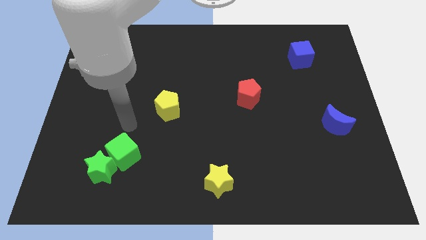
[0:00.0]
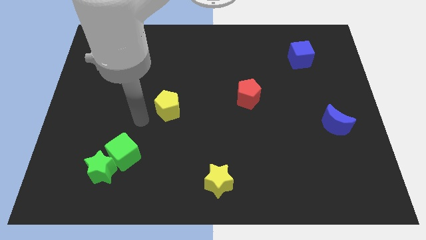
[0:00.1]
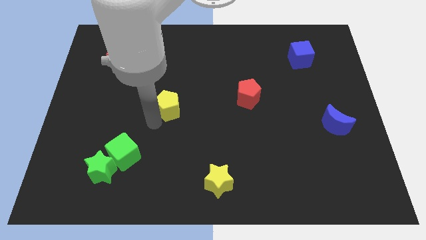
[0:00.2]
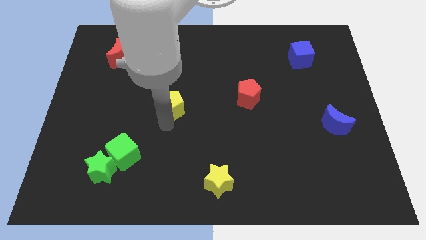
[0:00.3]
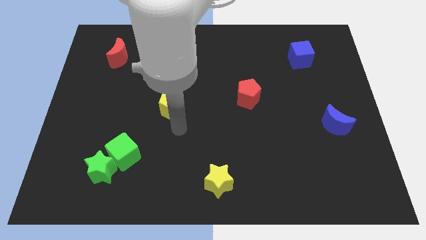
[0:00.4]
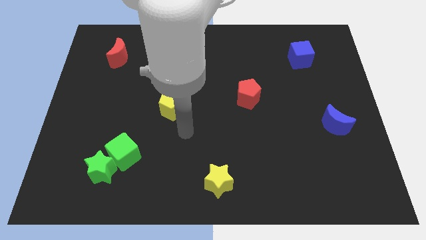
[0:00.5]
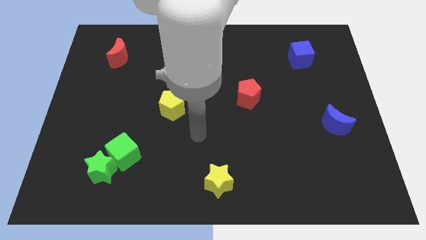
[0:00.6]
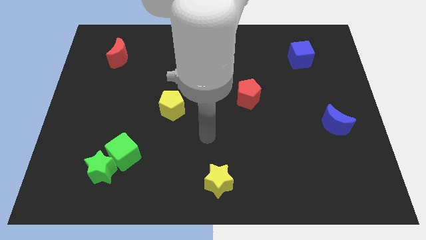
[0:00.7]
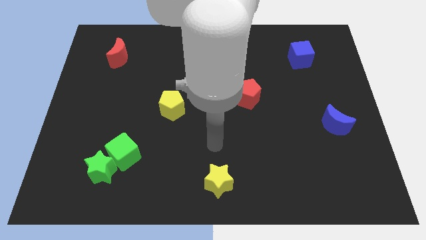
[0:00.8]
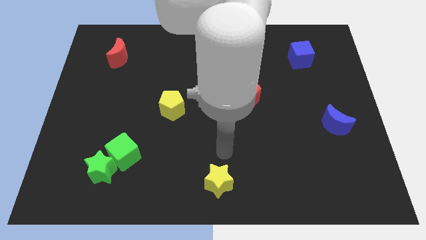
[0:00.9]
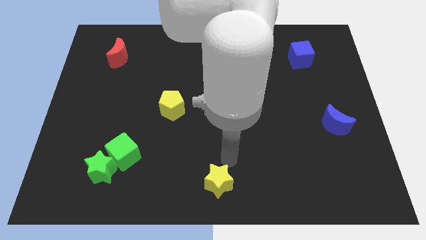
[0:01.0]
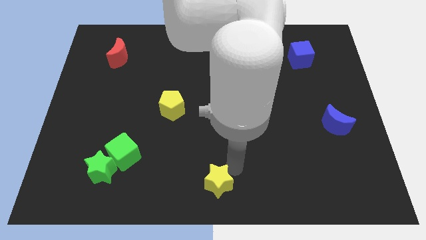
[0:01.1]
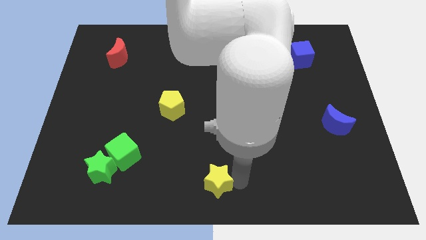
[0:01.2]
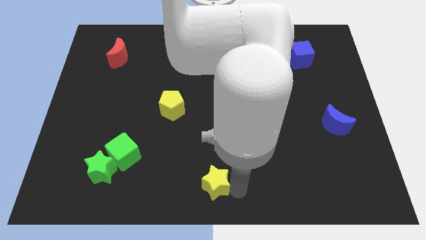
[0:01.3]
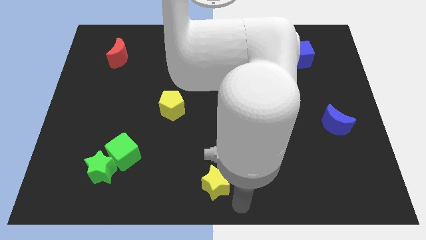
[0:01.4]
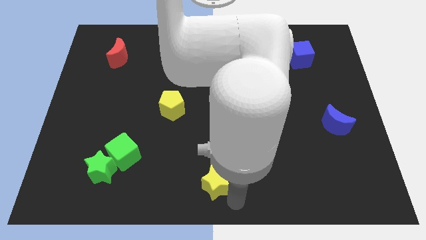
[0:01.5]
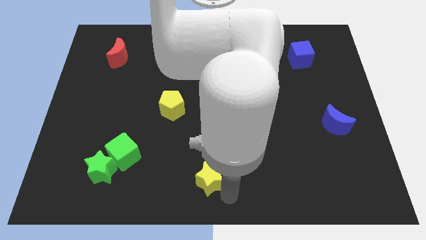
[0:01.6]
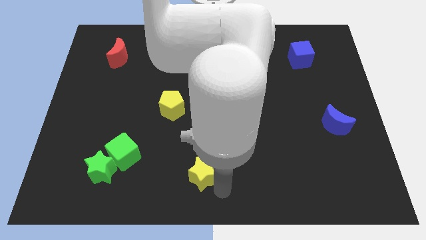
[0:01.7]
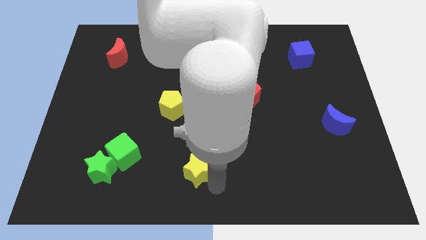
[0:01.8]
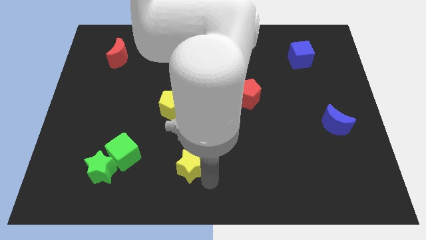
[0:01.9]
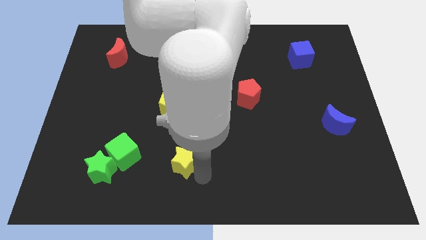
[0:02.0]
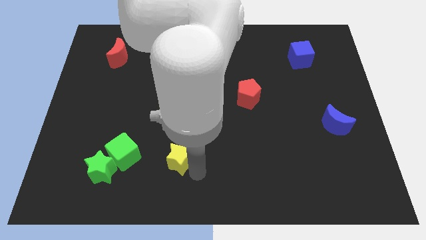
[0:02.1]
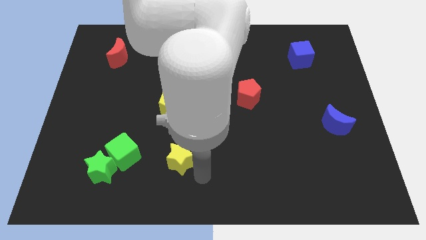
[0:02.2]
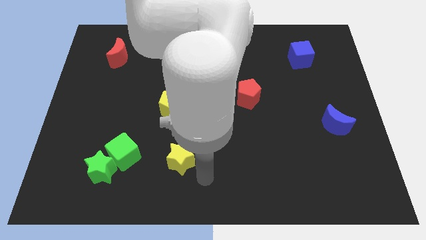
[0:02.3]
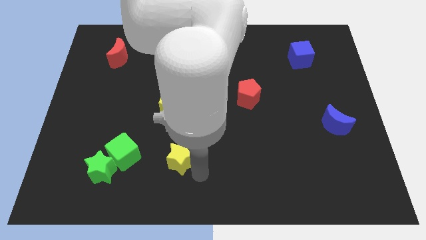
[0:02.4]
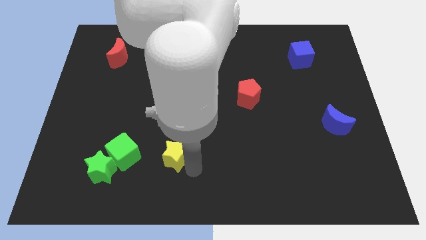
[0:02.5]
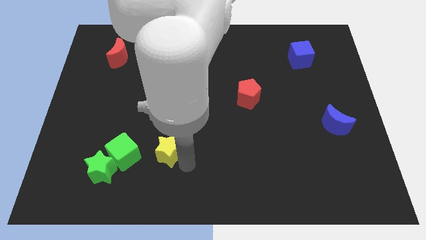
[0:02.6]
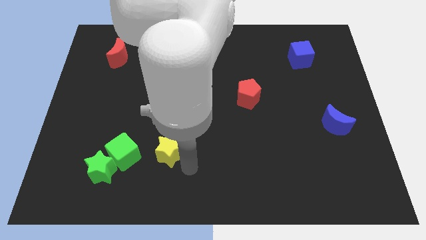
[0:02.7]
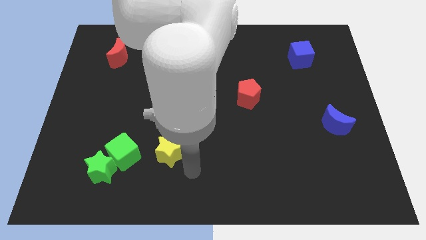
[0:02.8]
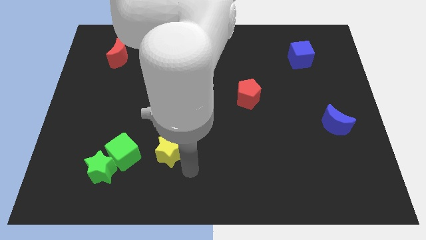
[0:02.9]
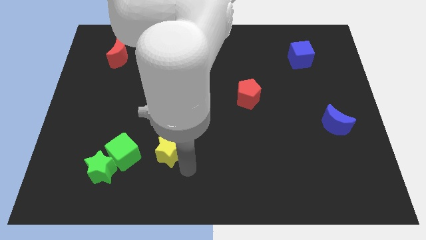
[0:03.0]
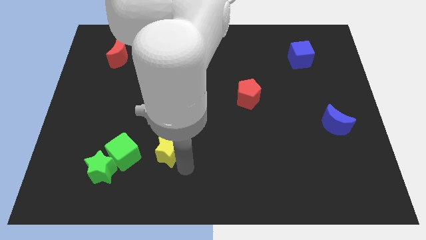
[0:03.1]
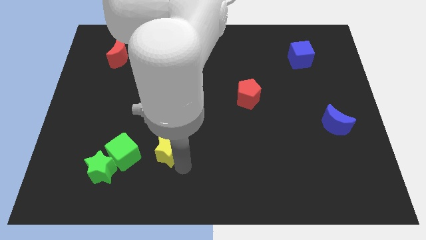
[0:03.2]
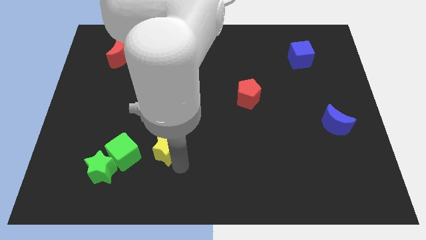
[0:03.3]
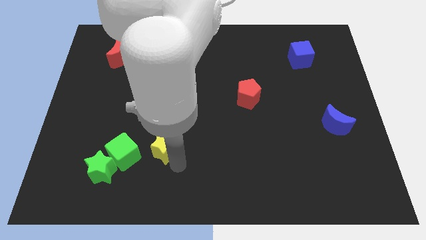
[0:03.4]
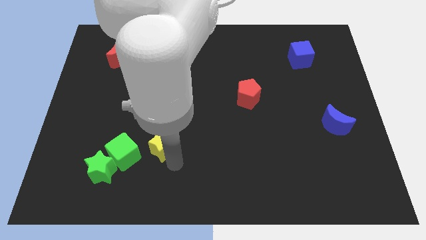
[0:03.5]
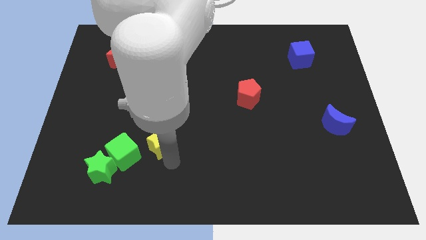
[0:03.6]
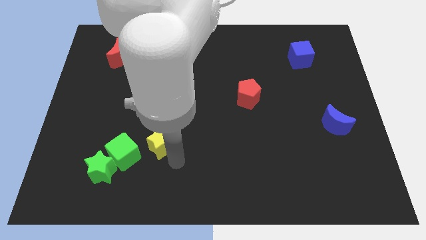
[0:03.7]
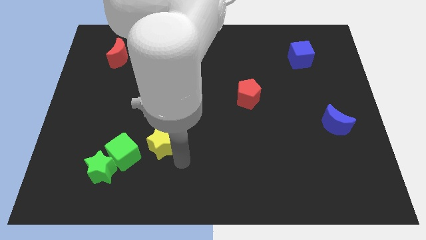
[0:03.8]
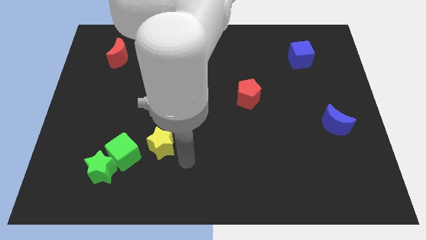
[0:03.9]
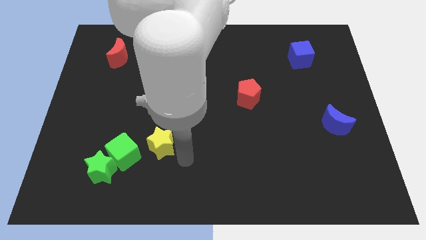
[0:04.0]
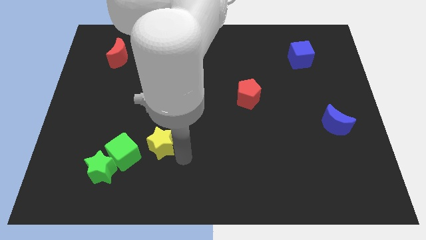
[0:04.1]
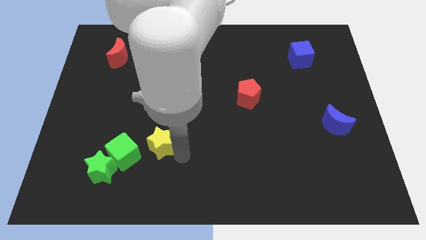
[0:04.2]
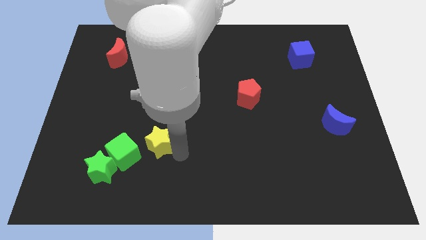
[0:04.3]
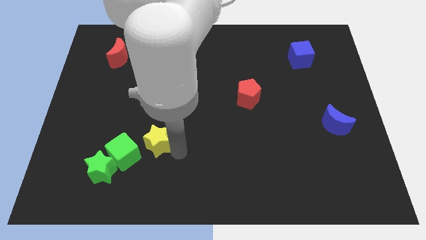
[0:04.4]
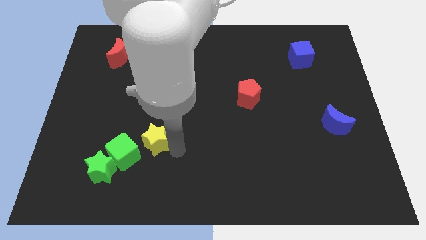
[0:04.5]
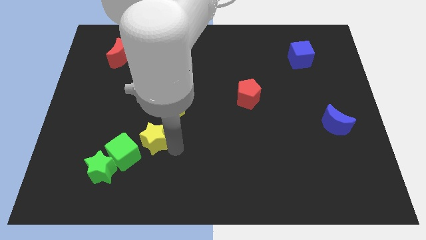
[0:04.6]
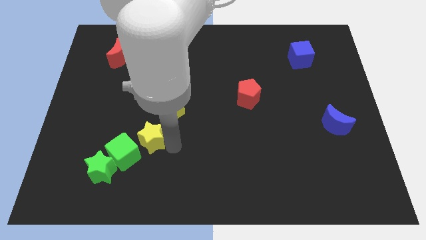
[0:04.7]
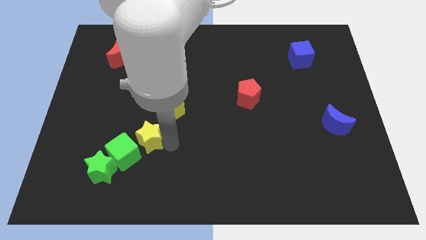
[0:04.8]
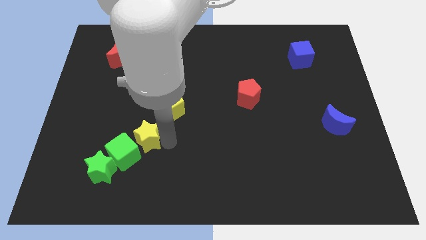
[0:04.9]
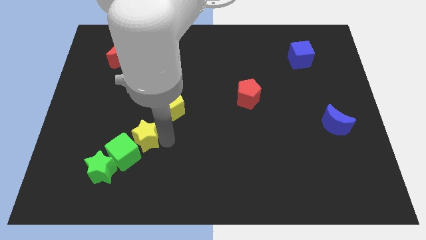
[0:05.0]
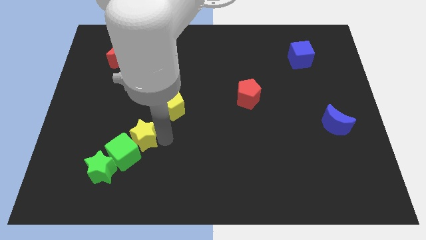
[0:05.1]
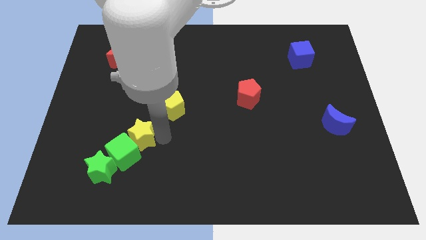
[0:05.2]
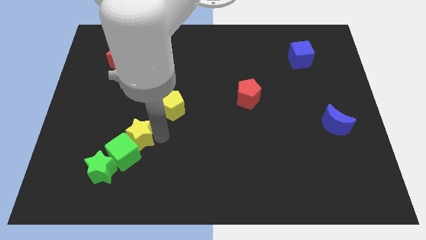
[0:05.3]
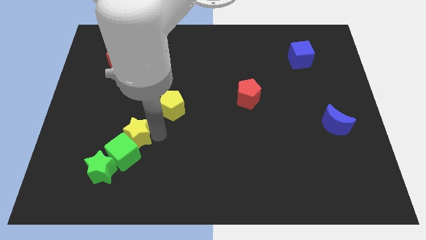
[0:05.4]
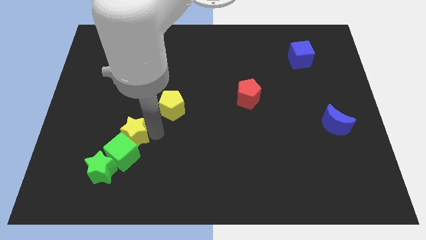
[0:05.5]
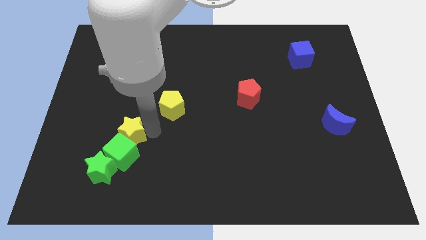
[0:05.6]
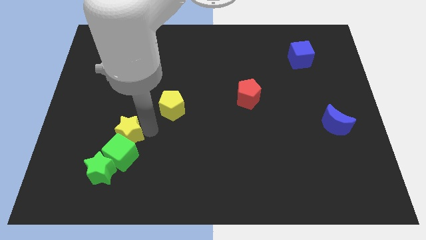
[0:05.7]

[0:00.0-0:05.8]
push the yellow star above the green star

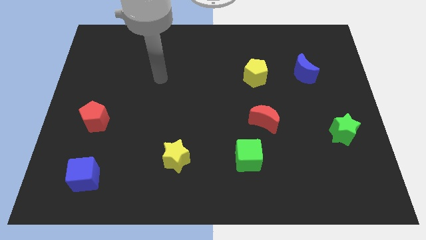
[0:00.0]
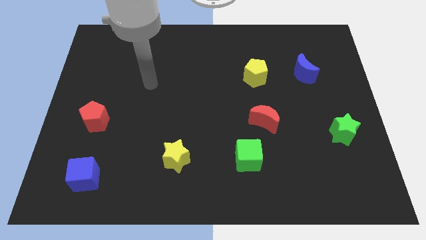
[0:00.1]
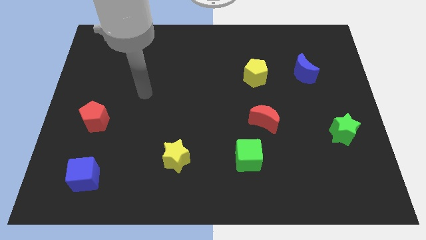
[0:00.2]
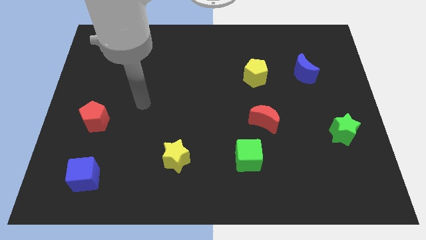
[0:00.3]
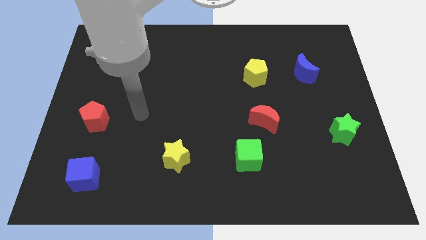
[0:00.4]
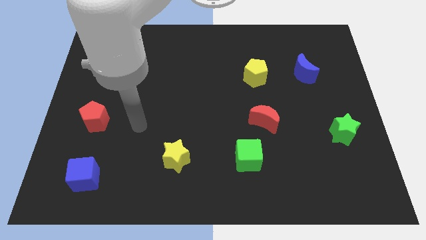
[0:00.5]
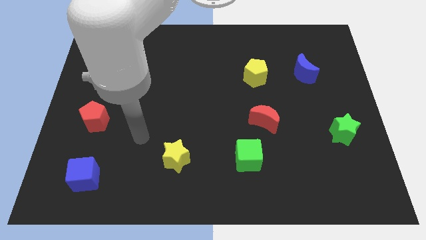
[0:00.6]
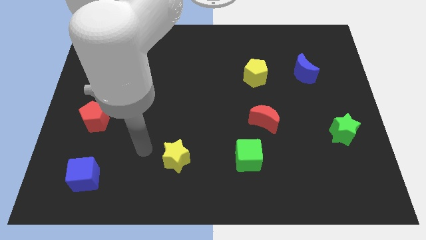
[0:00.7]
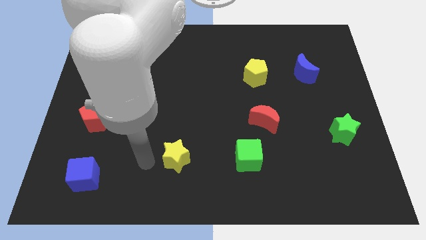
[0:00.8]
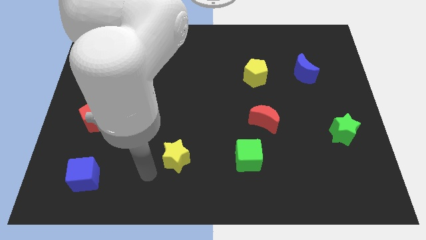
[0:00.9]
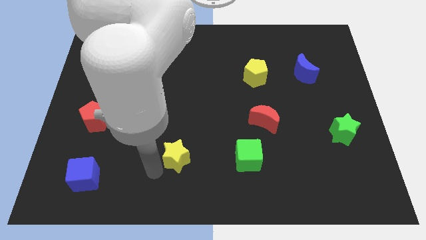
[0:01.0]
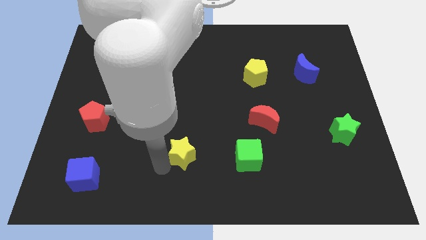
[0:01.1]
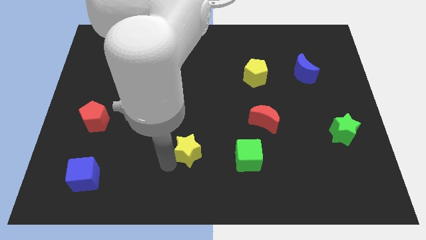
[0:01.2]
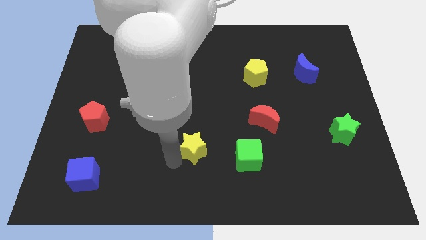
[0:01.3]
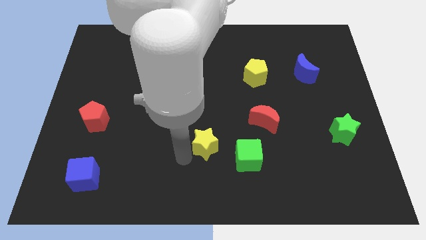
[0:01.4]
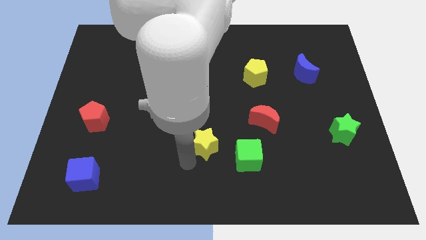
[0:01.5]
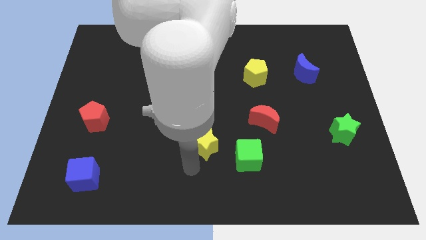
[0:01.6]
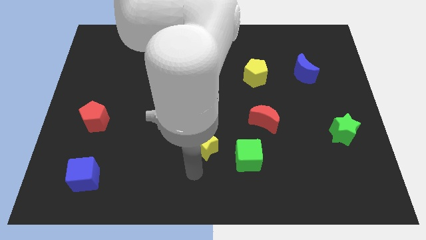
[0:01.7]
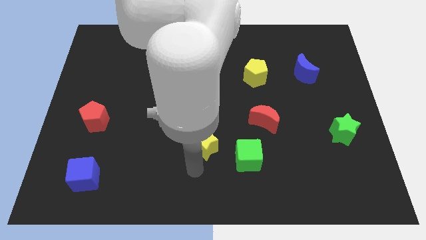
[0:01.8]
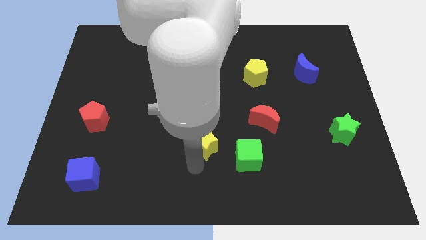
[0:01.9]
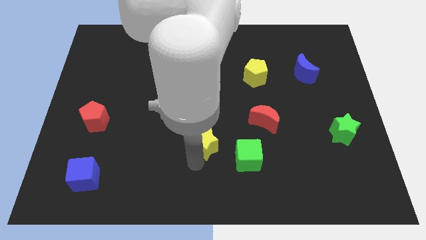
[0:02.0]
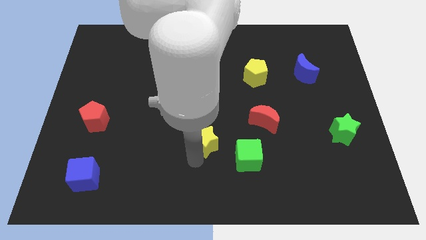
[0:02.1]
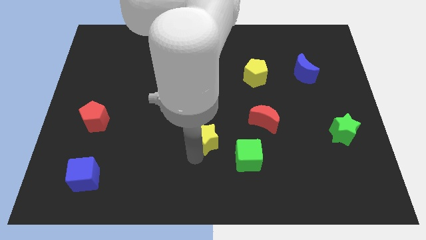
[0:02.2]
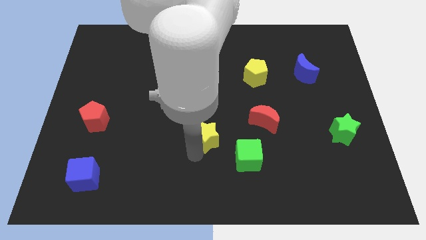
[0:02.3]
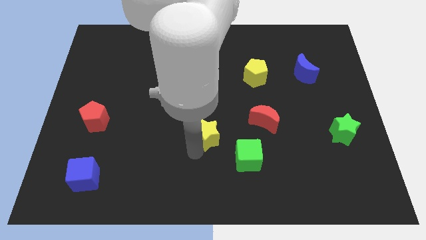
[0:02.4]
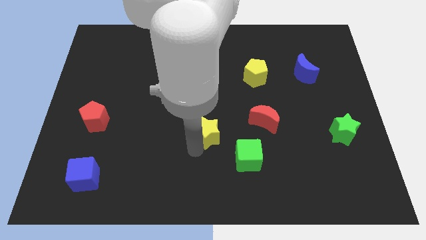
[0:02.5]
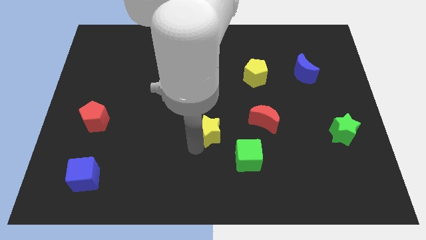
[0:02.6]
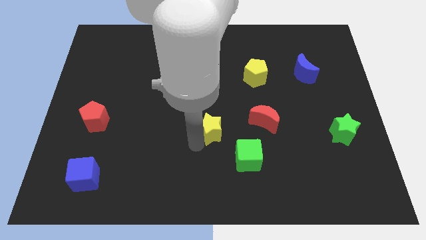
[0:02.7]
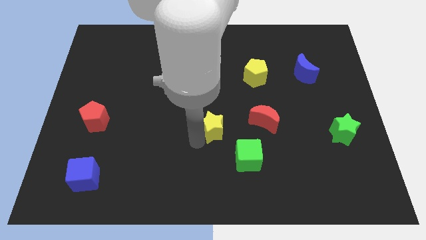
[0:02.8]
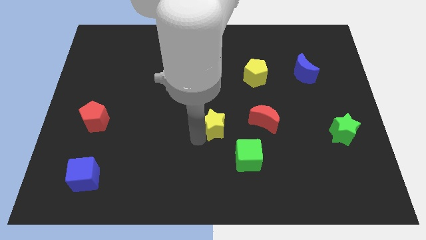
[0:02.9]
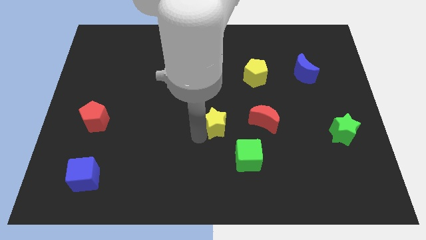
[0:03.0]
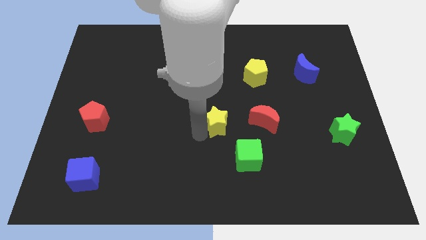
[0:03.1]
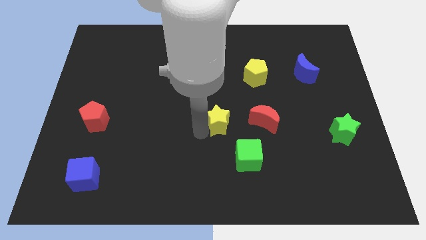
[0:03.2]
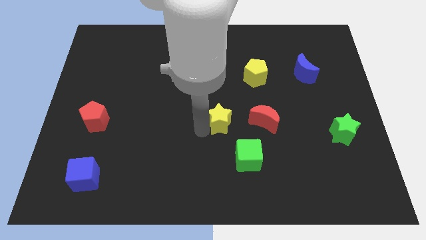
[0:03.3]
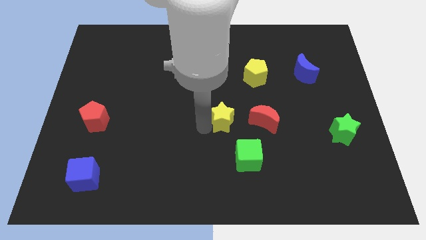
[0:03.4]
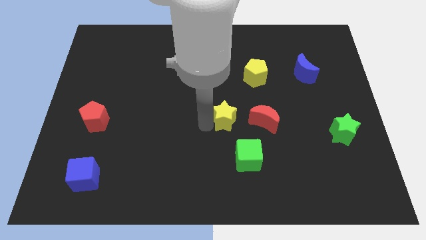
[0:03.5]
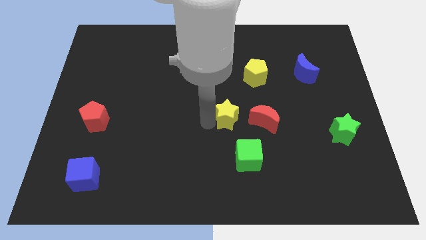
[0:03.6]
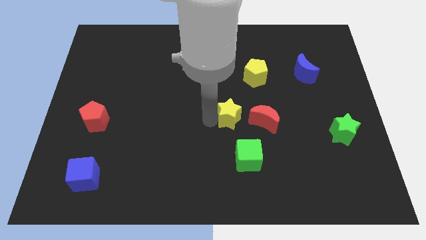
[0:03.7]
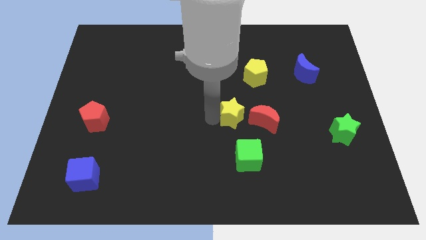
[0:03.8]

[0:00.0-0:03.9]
slide the yellow star to the top left of the red moon
